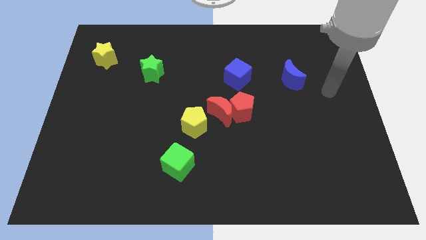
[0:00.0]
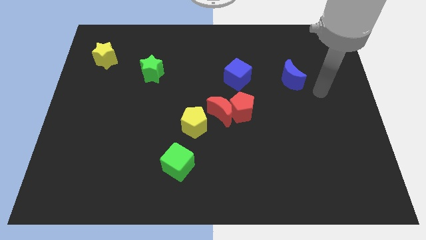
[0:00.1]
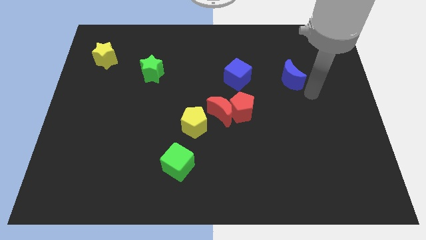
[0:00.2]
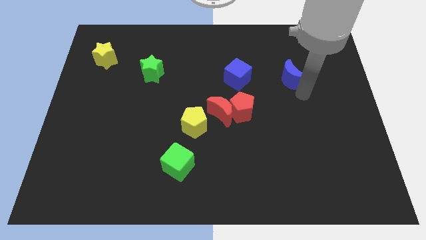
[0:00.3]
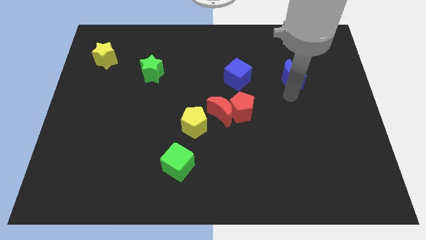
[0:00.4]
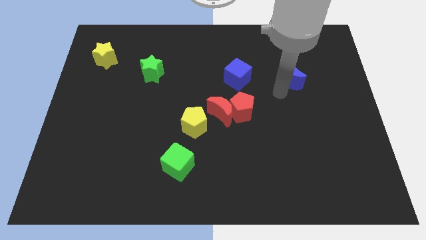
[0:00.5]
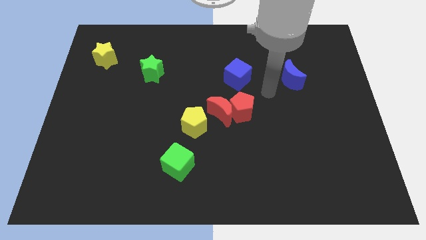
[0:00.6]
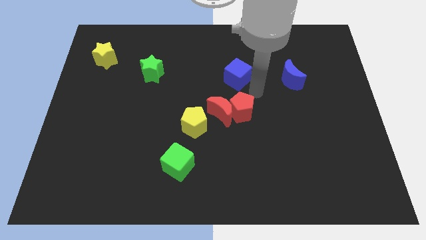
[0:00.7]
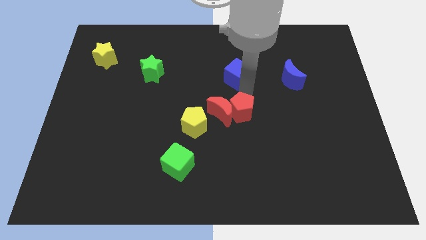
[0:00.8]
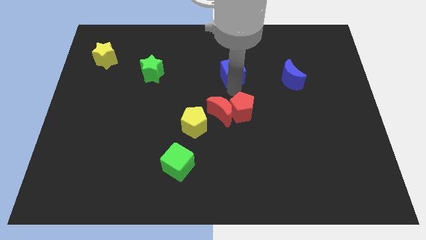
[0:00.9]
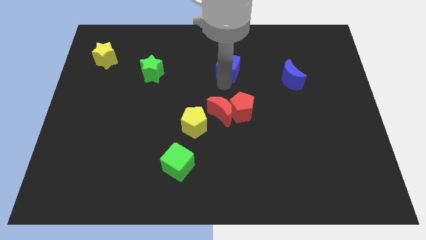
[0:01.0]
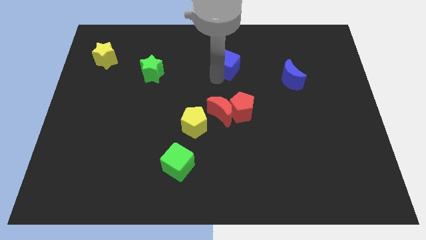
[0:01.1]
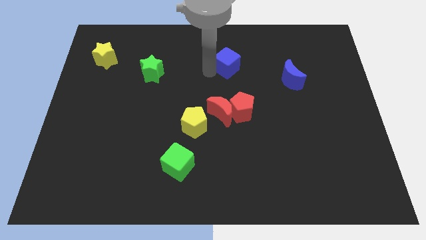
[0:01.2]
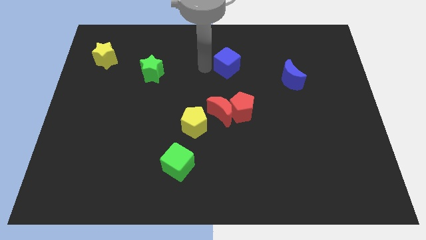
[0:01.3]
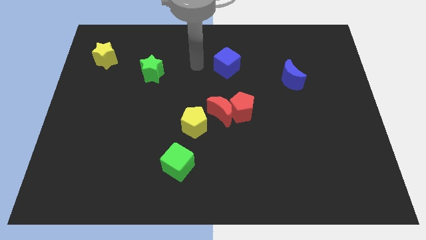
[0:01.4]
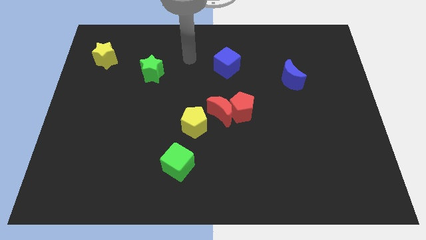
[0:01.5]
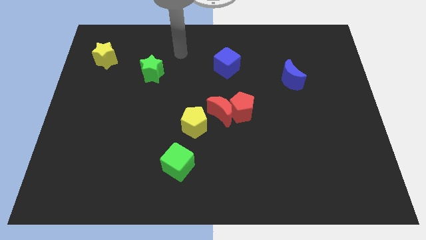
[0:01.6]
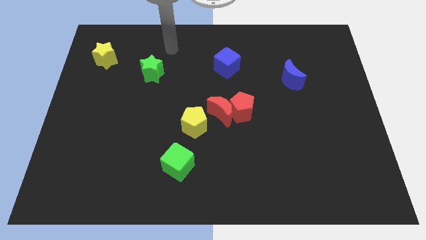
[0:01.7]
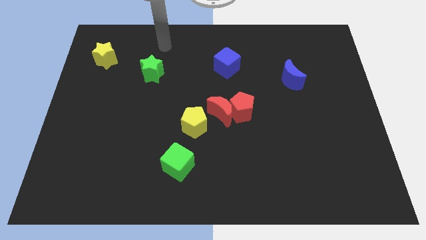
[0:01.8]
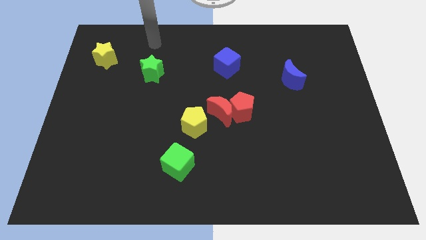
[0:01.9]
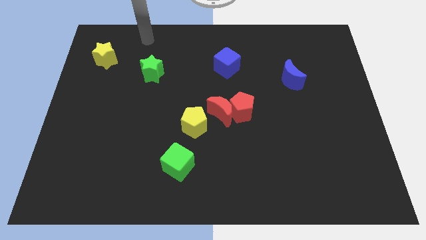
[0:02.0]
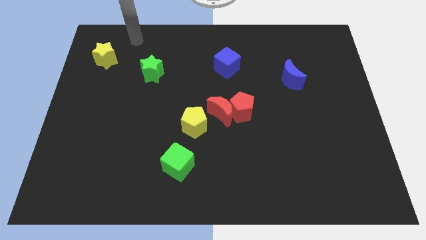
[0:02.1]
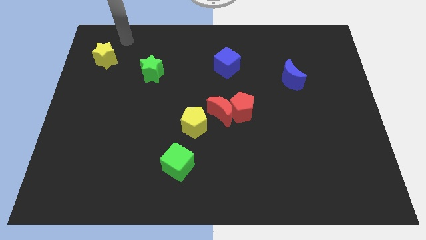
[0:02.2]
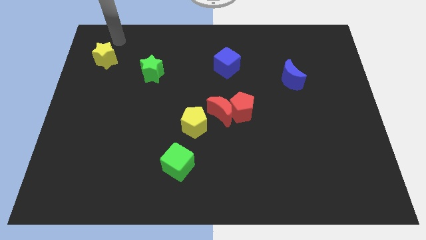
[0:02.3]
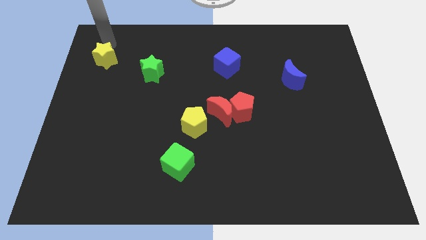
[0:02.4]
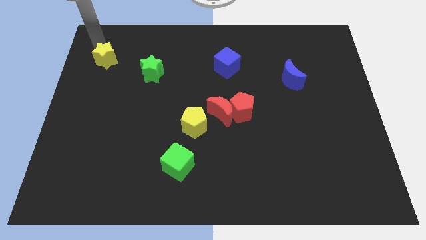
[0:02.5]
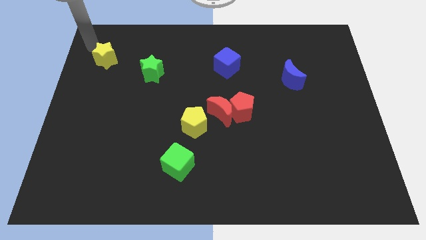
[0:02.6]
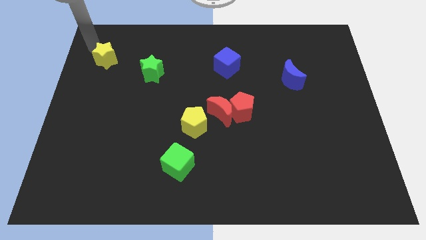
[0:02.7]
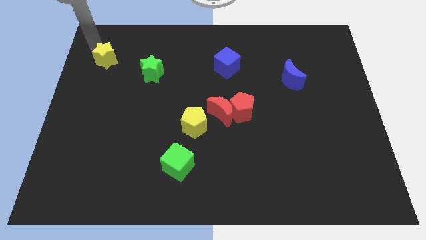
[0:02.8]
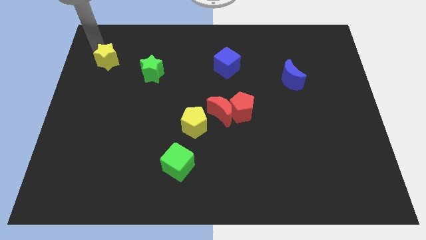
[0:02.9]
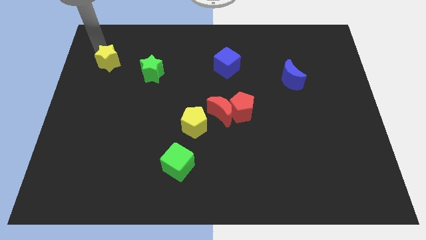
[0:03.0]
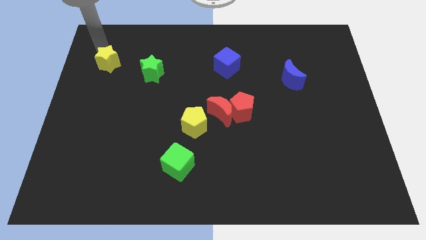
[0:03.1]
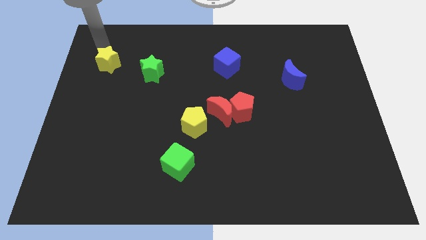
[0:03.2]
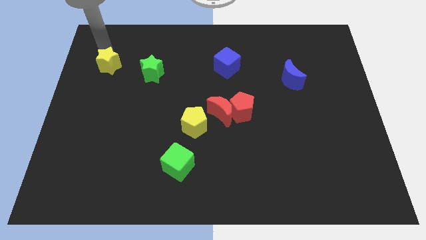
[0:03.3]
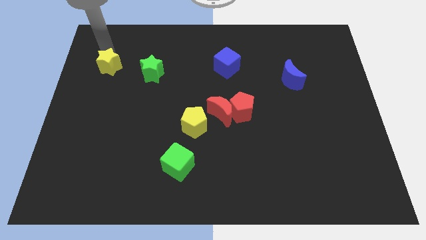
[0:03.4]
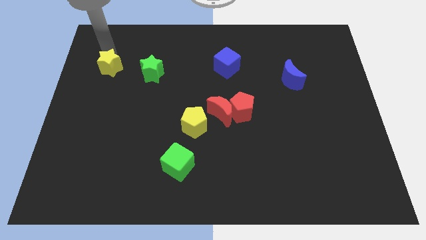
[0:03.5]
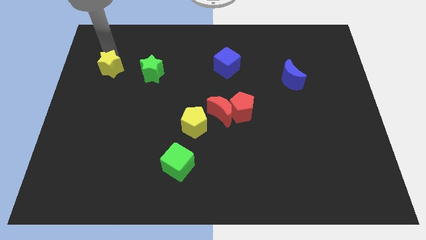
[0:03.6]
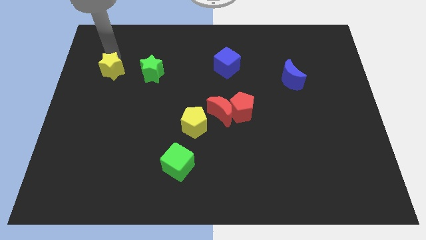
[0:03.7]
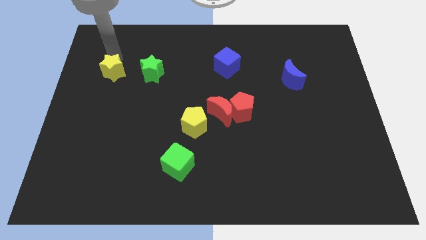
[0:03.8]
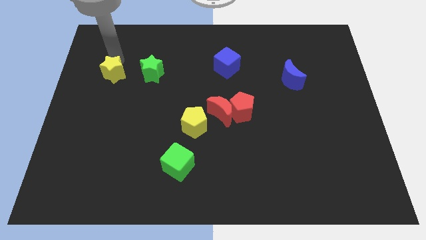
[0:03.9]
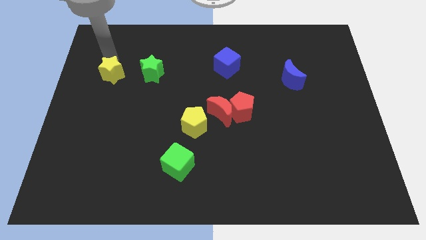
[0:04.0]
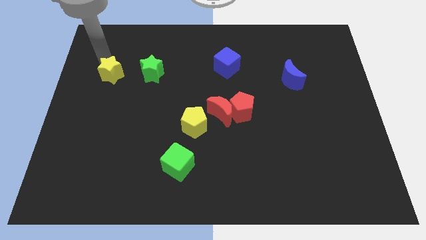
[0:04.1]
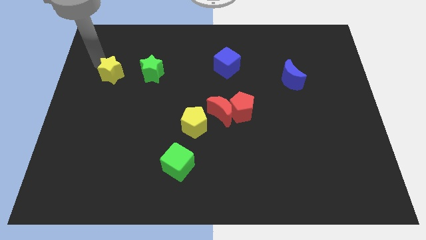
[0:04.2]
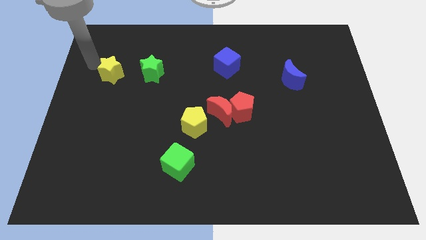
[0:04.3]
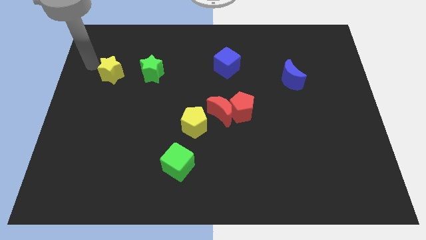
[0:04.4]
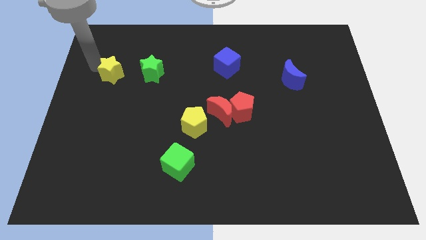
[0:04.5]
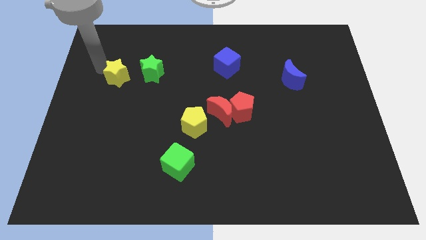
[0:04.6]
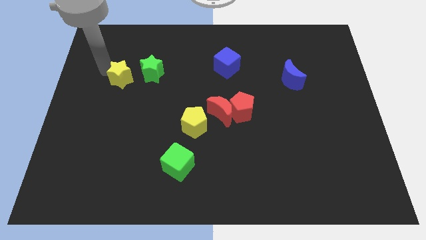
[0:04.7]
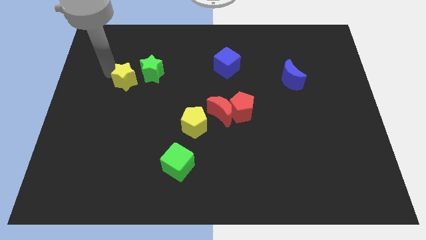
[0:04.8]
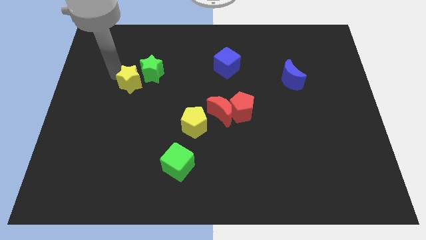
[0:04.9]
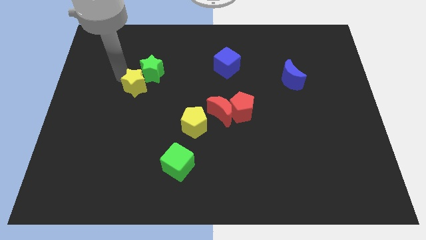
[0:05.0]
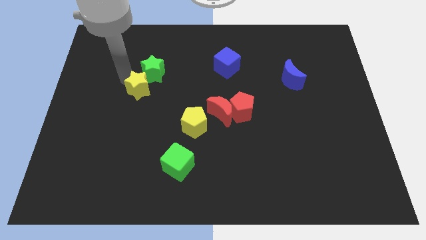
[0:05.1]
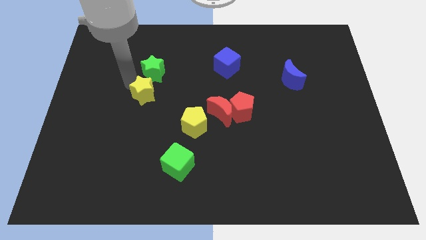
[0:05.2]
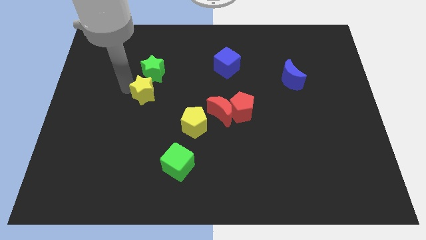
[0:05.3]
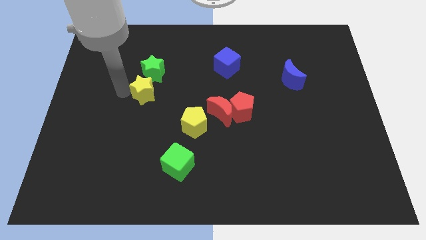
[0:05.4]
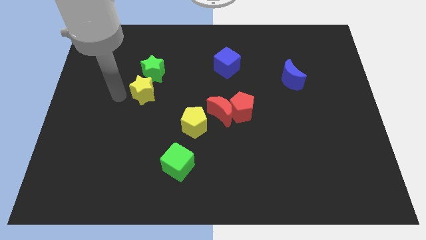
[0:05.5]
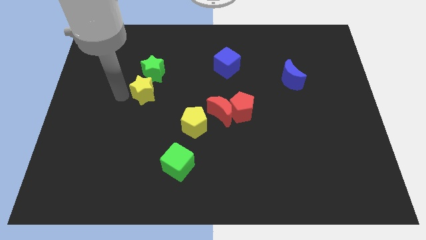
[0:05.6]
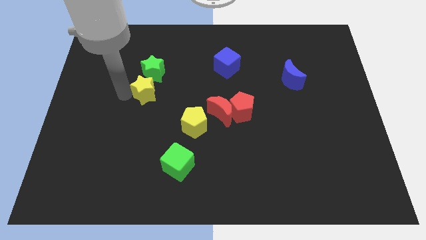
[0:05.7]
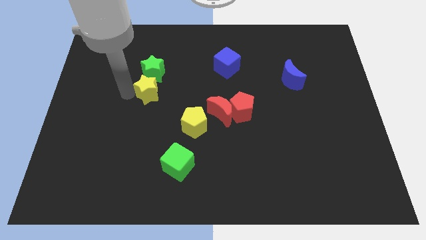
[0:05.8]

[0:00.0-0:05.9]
push the yellow star to the bottom right of the green star

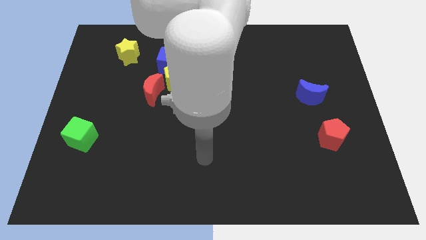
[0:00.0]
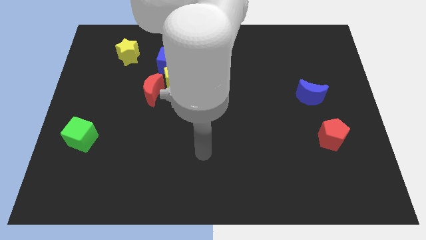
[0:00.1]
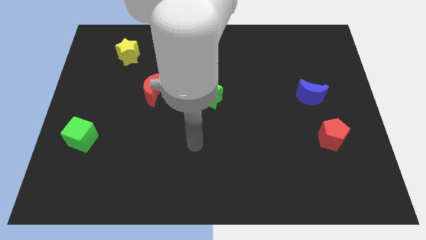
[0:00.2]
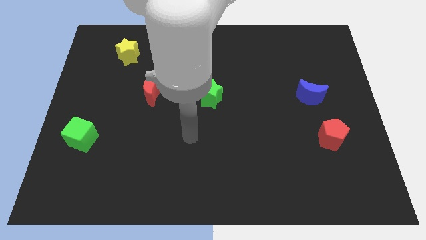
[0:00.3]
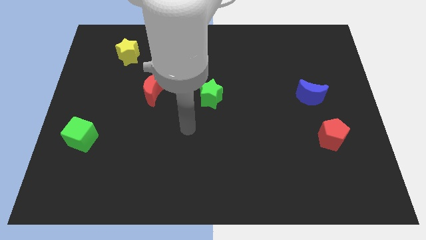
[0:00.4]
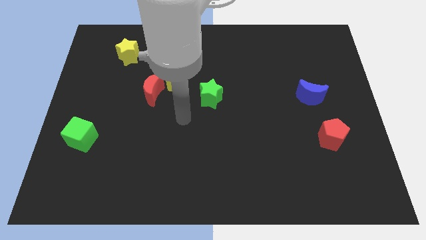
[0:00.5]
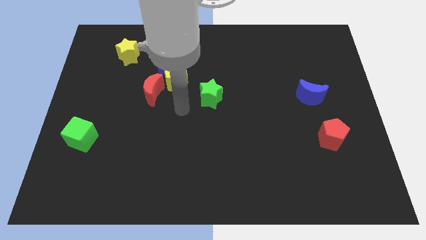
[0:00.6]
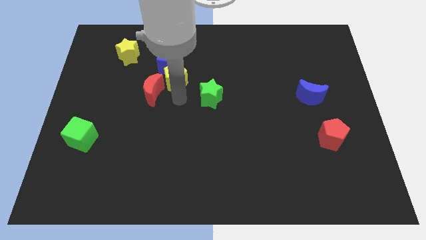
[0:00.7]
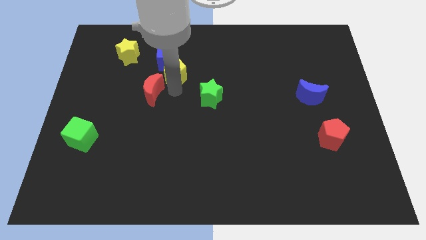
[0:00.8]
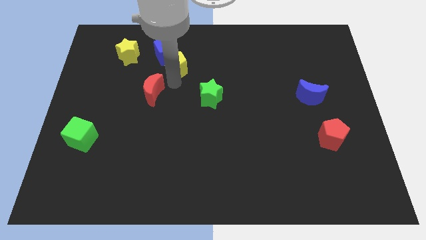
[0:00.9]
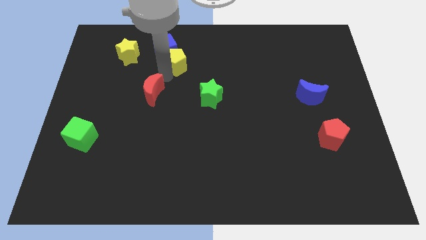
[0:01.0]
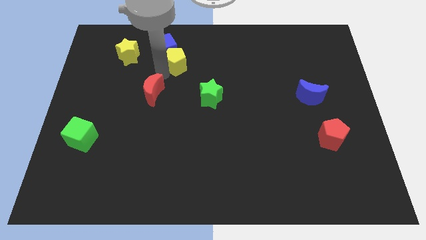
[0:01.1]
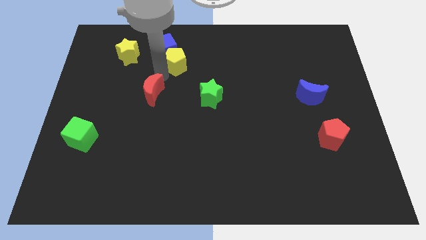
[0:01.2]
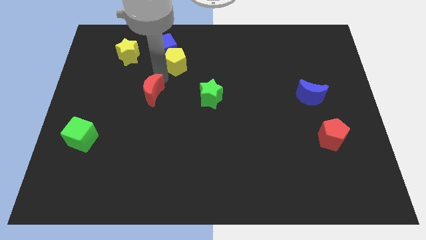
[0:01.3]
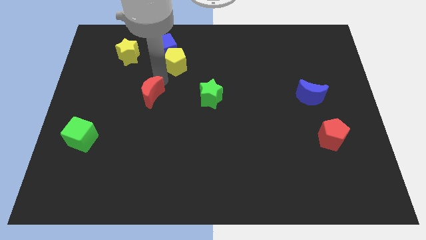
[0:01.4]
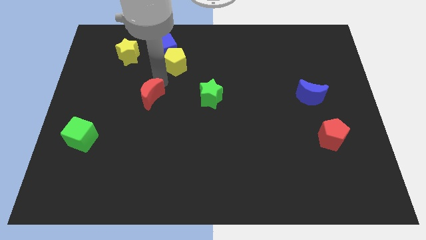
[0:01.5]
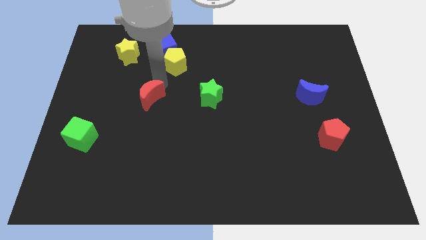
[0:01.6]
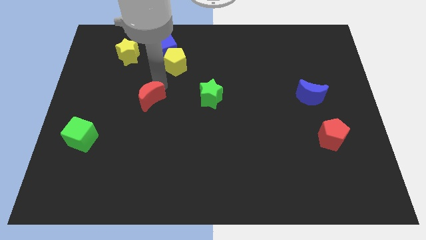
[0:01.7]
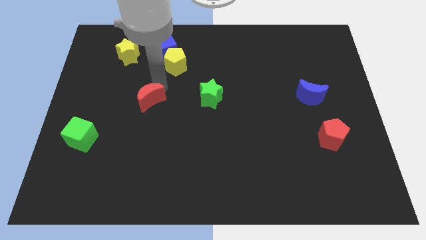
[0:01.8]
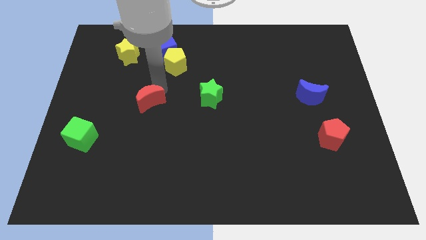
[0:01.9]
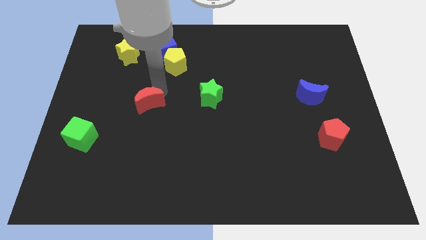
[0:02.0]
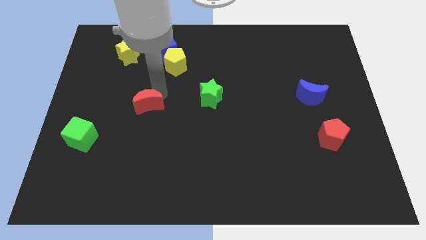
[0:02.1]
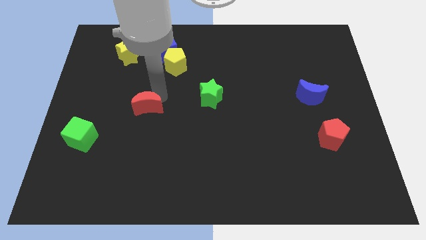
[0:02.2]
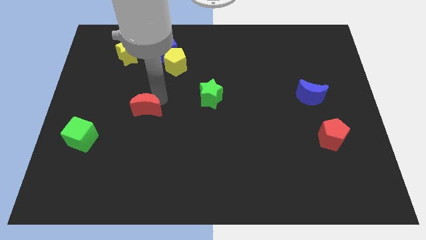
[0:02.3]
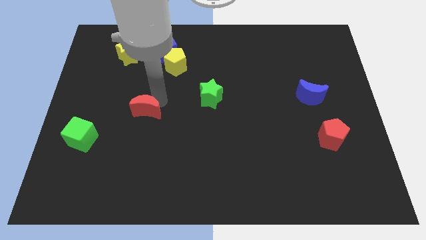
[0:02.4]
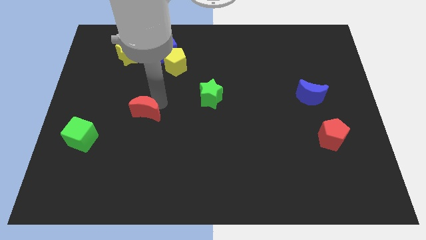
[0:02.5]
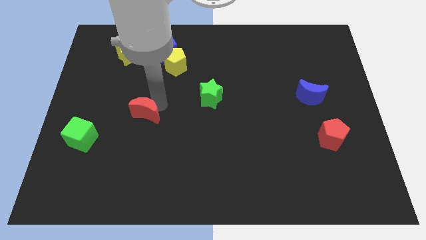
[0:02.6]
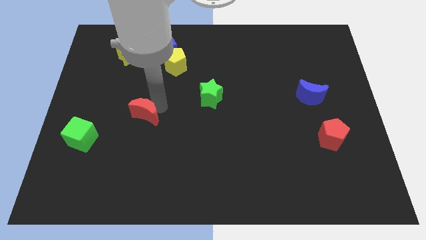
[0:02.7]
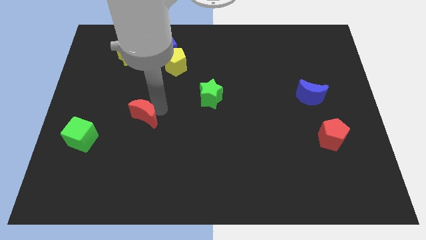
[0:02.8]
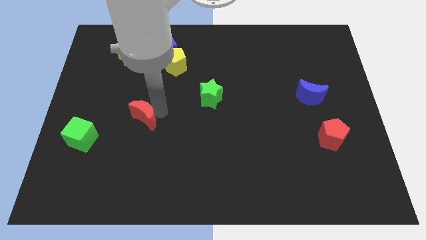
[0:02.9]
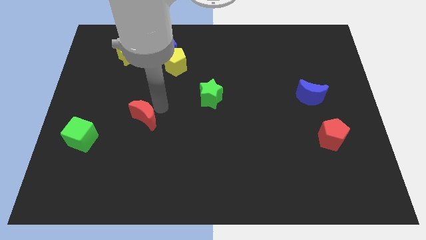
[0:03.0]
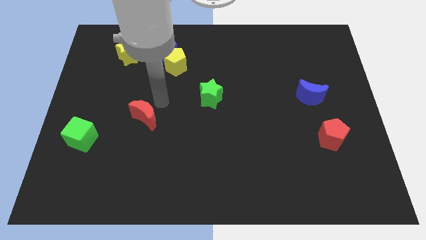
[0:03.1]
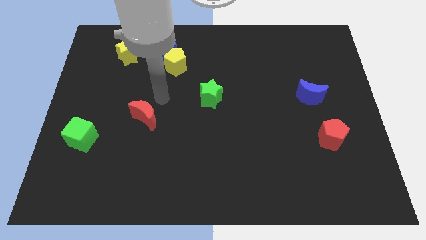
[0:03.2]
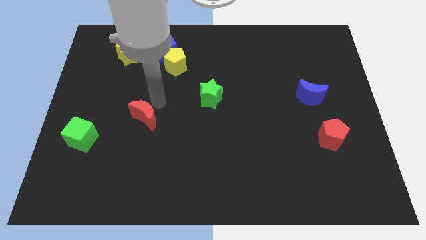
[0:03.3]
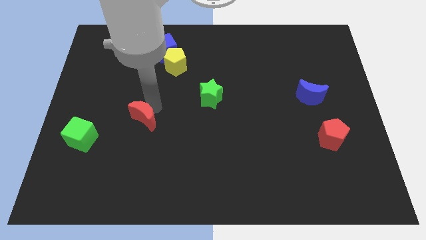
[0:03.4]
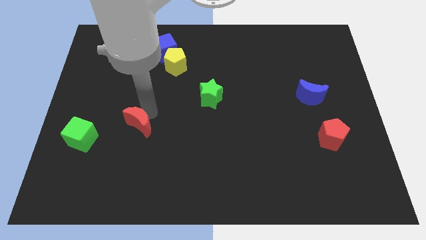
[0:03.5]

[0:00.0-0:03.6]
push the red moon just right of the green cube
